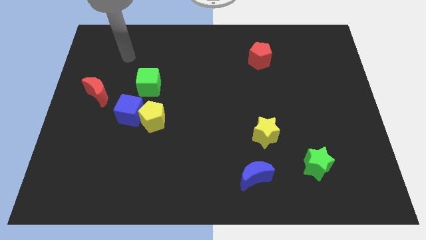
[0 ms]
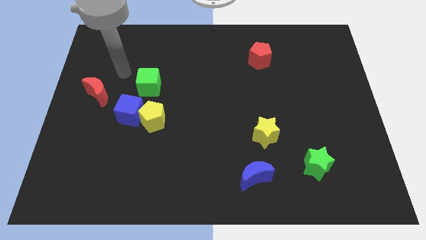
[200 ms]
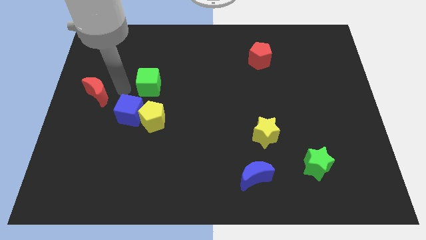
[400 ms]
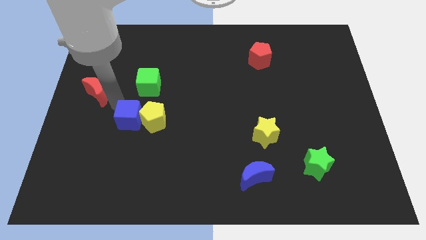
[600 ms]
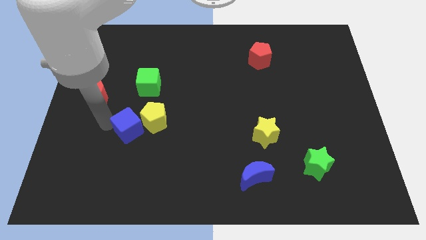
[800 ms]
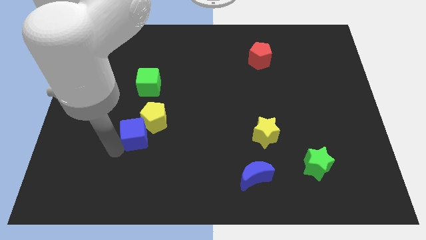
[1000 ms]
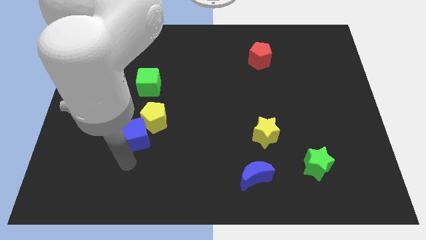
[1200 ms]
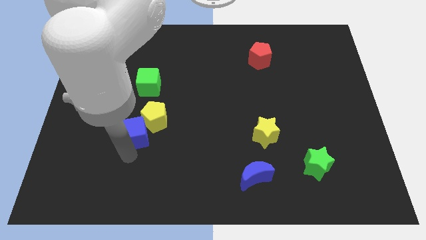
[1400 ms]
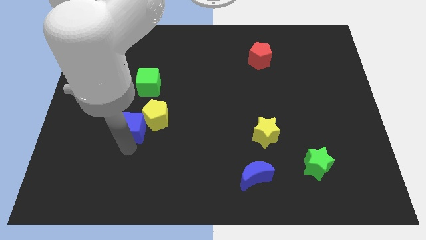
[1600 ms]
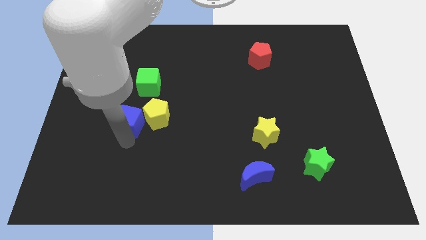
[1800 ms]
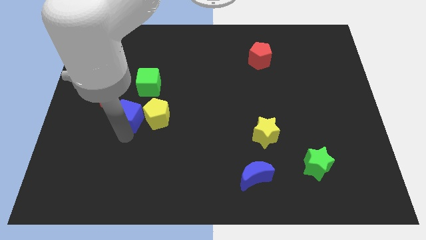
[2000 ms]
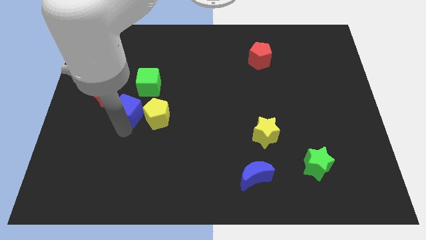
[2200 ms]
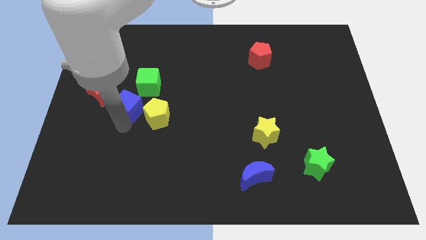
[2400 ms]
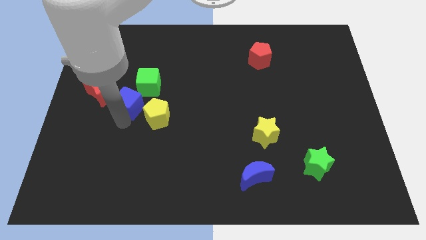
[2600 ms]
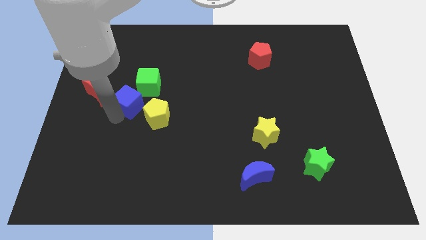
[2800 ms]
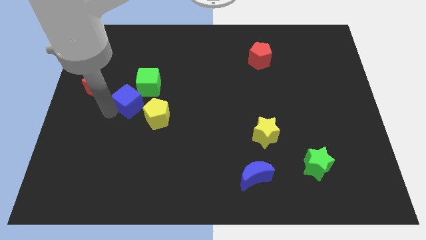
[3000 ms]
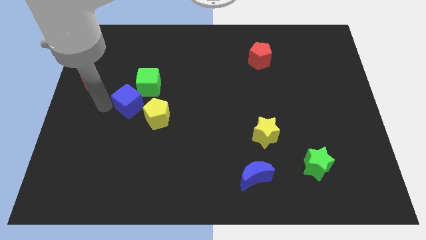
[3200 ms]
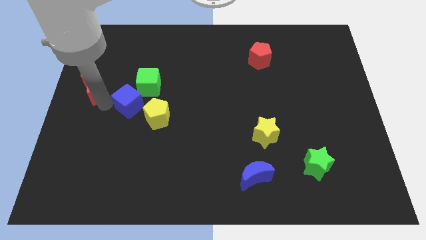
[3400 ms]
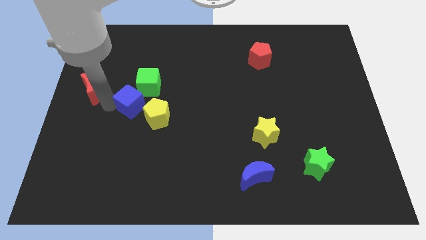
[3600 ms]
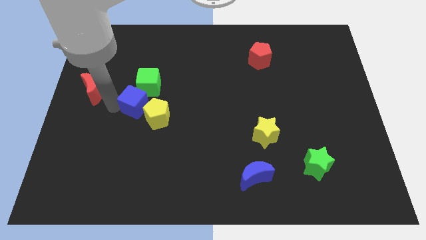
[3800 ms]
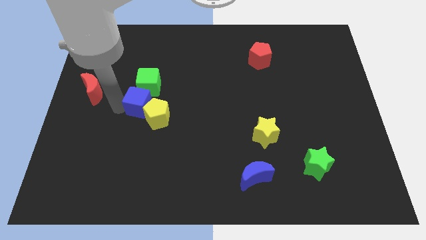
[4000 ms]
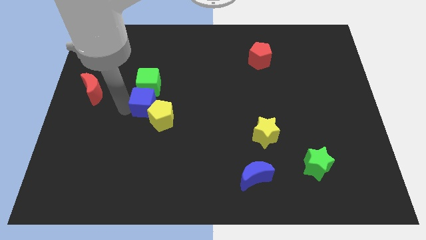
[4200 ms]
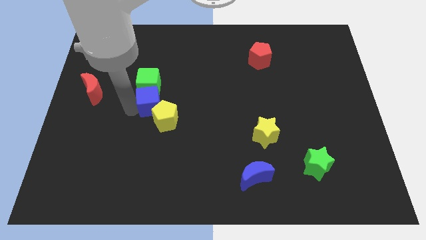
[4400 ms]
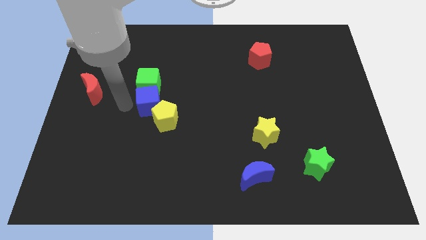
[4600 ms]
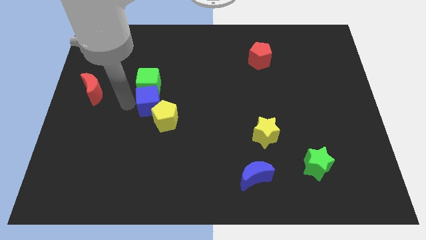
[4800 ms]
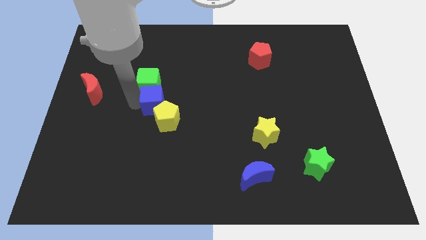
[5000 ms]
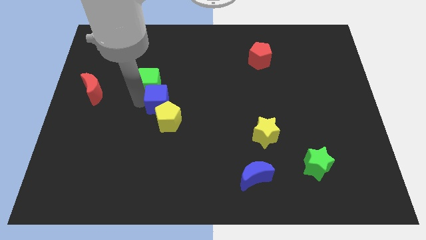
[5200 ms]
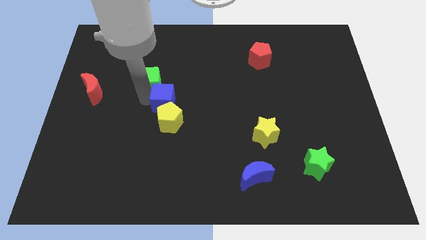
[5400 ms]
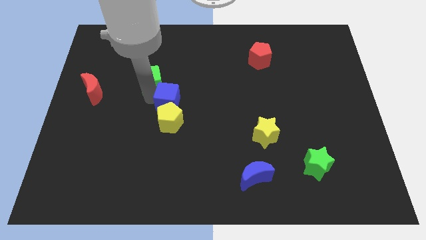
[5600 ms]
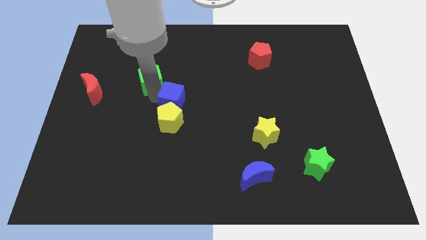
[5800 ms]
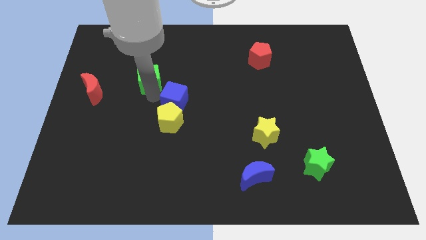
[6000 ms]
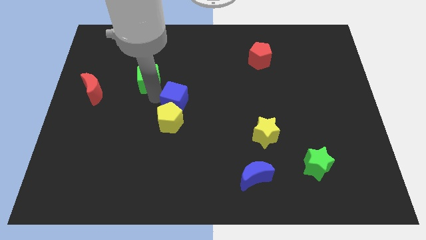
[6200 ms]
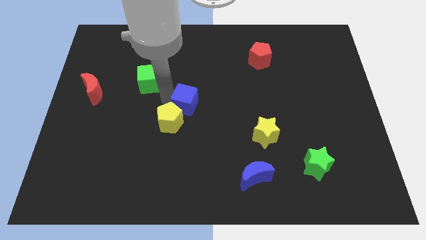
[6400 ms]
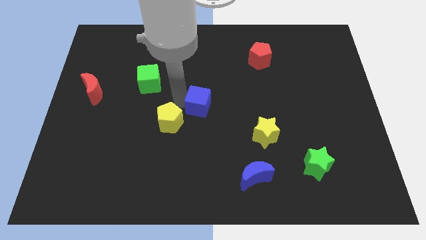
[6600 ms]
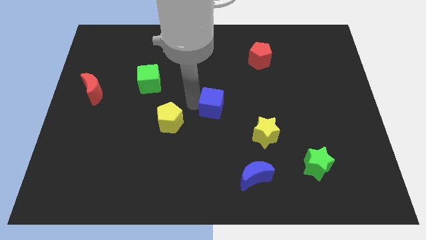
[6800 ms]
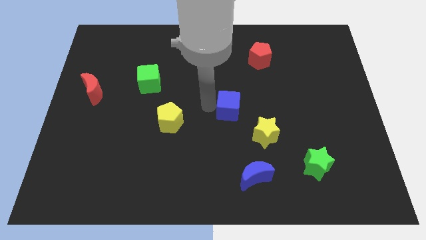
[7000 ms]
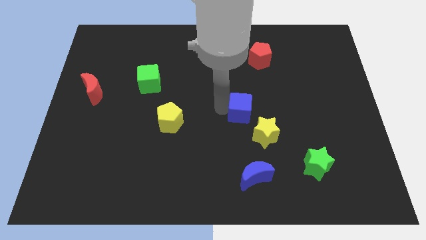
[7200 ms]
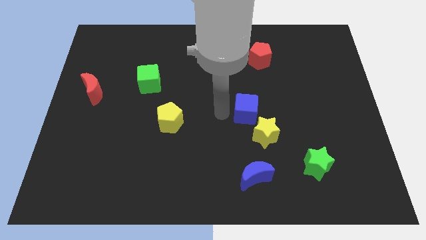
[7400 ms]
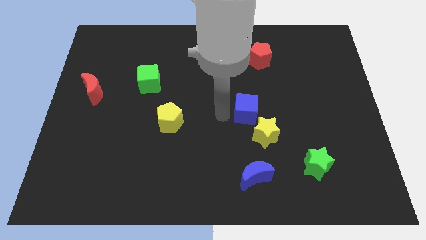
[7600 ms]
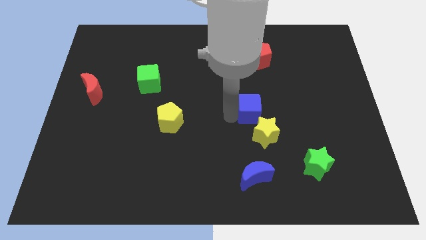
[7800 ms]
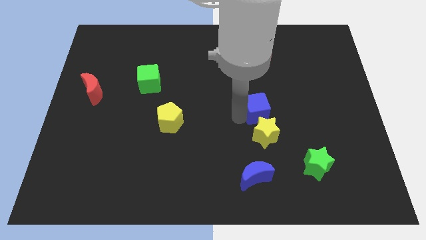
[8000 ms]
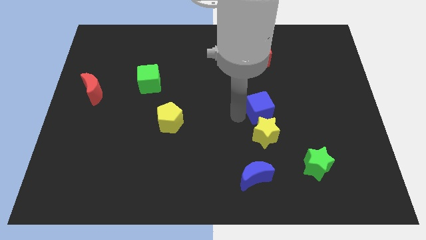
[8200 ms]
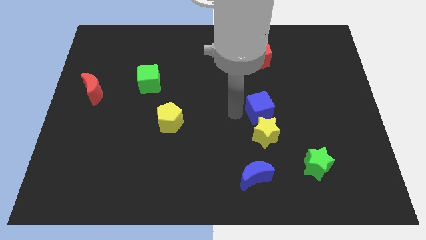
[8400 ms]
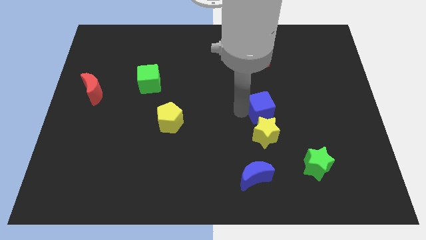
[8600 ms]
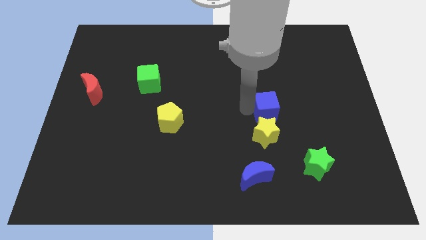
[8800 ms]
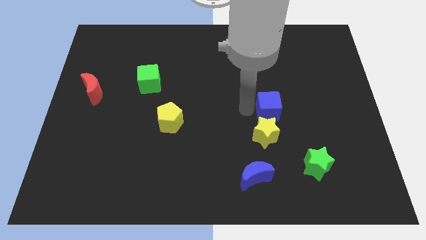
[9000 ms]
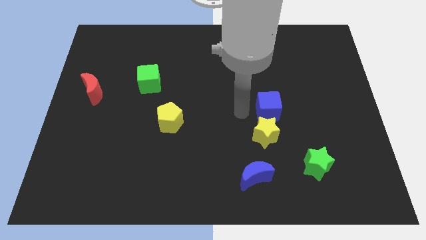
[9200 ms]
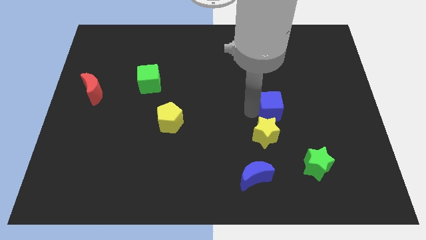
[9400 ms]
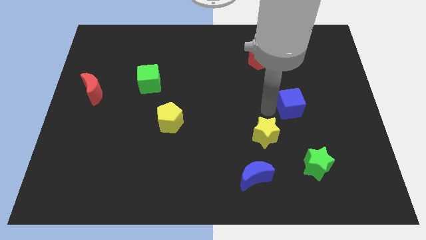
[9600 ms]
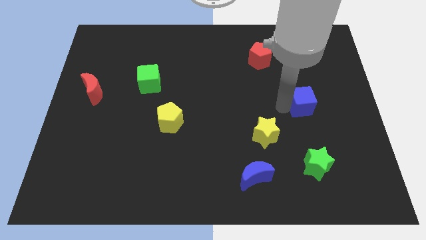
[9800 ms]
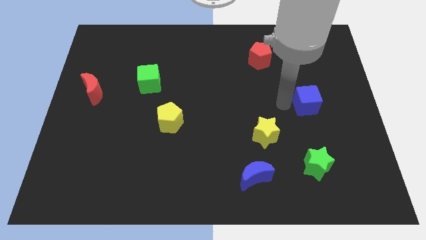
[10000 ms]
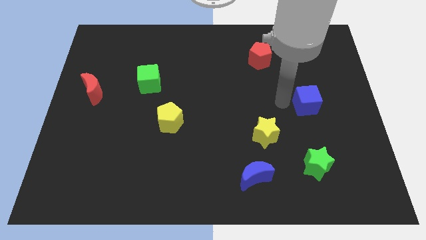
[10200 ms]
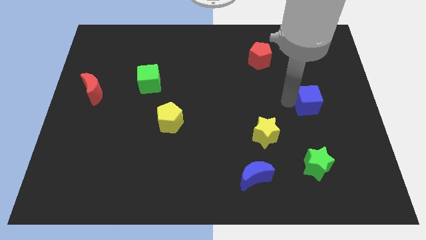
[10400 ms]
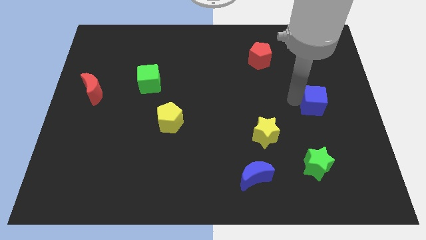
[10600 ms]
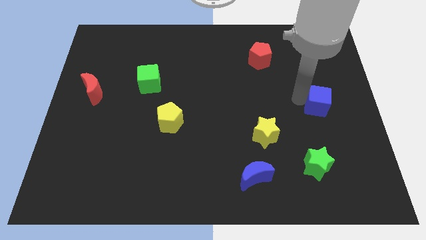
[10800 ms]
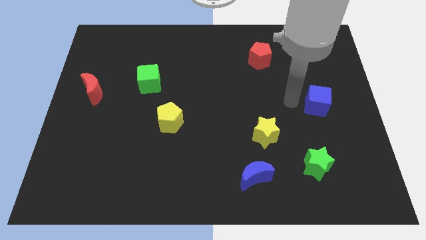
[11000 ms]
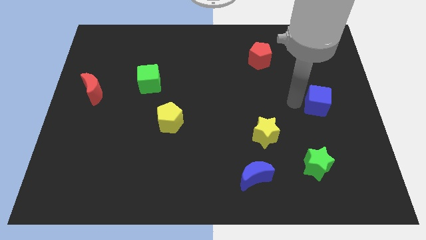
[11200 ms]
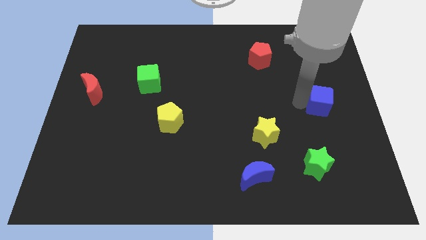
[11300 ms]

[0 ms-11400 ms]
put the blue cube to the center right

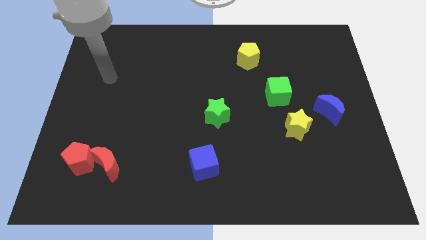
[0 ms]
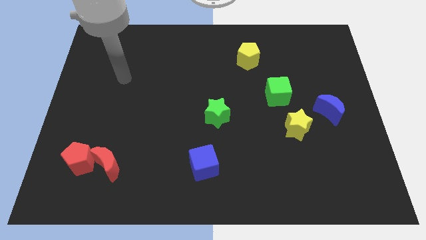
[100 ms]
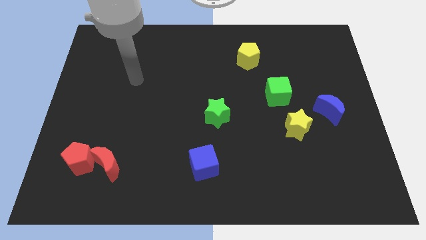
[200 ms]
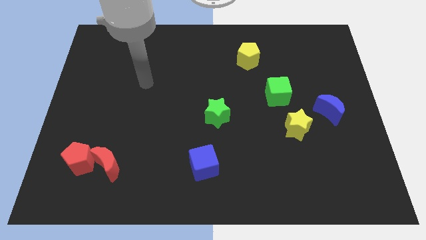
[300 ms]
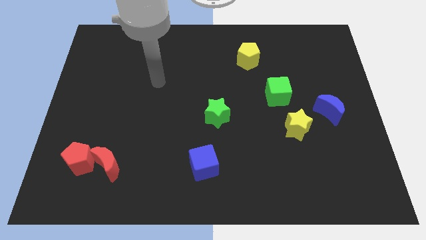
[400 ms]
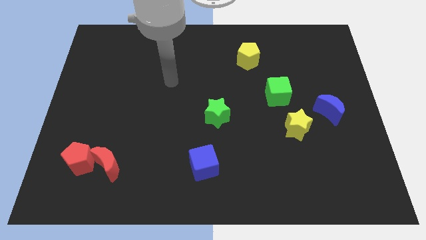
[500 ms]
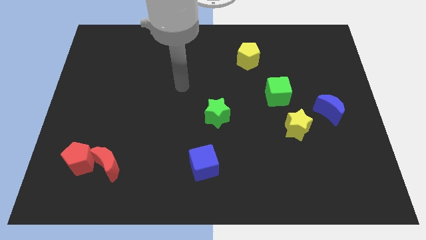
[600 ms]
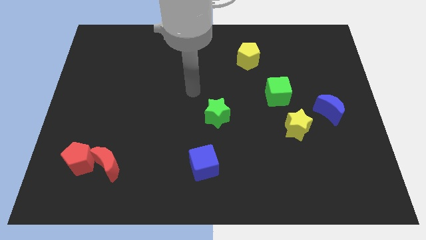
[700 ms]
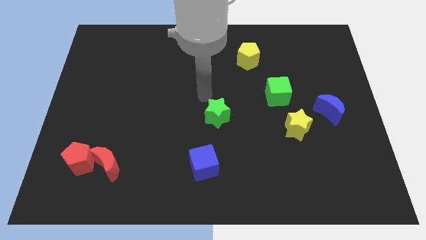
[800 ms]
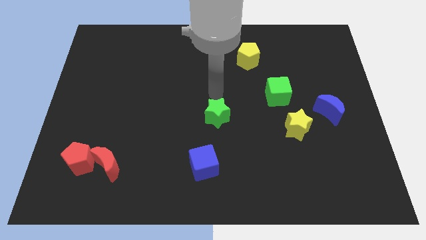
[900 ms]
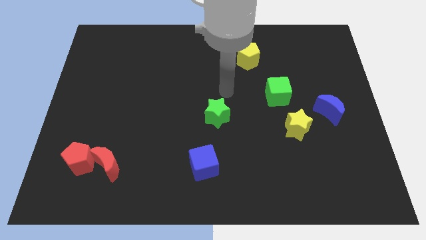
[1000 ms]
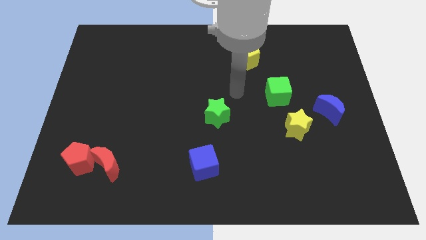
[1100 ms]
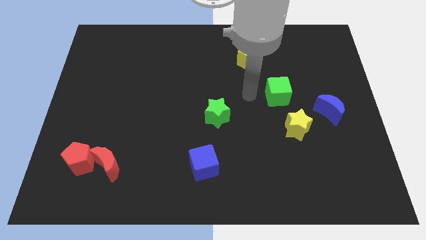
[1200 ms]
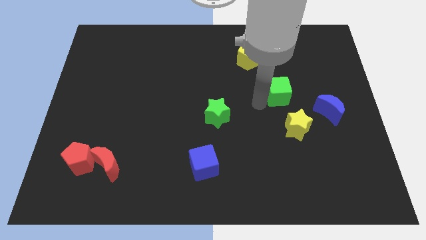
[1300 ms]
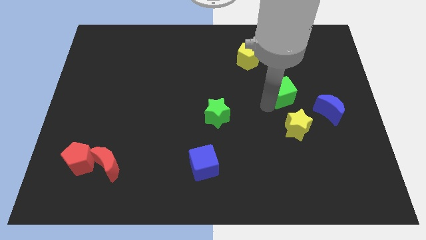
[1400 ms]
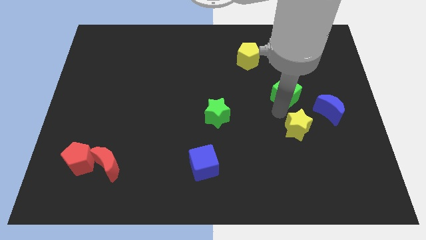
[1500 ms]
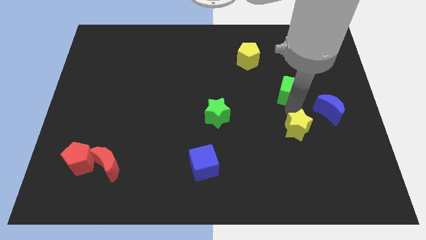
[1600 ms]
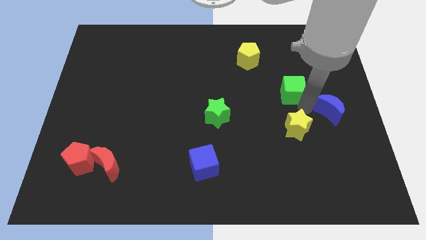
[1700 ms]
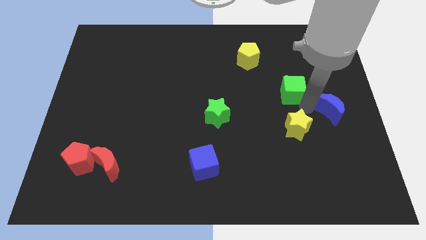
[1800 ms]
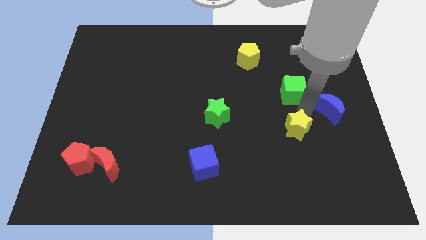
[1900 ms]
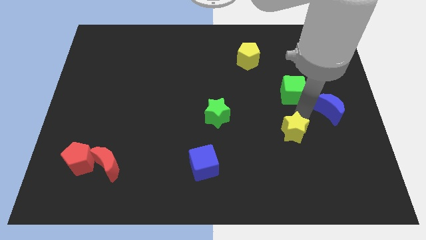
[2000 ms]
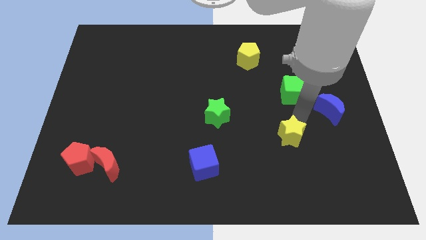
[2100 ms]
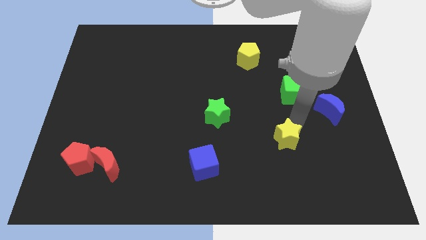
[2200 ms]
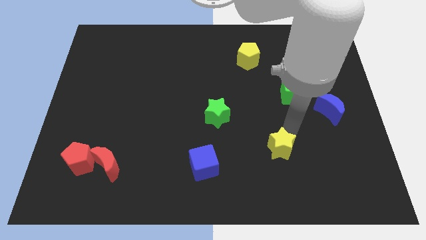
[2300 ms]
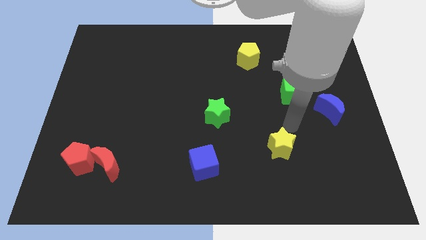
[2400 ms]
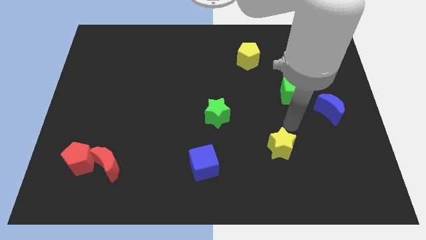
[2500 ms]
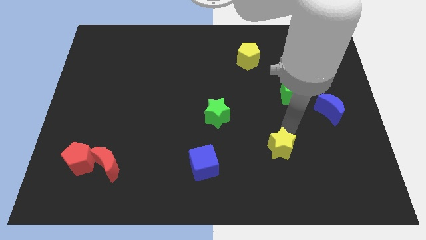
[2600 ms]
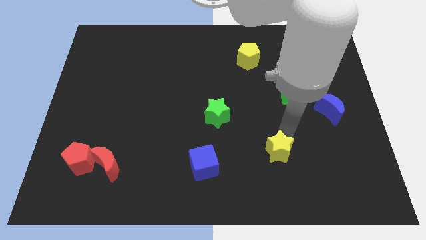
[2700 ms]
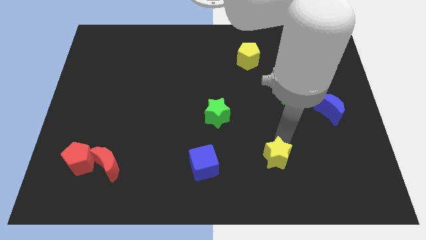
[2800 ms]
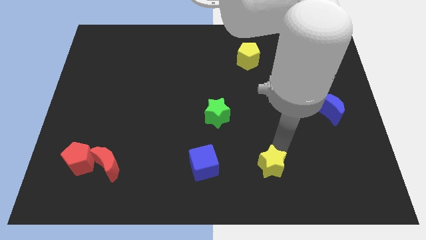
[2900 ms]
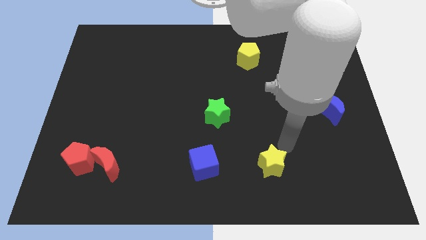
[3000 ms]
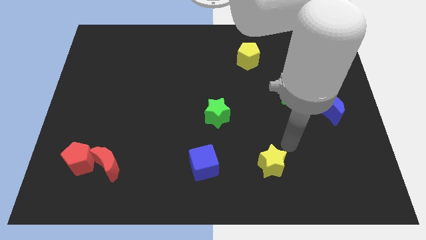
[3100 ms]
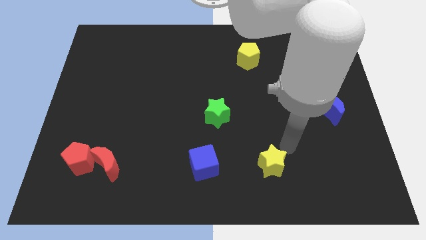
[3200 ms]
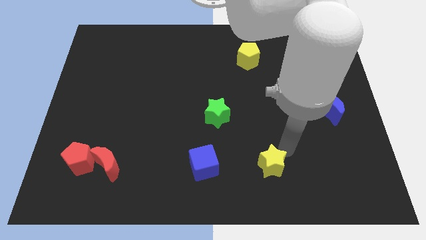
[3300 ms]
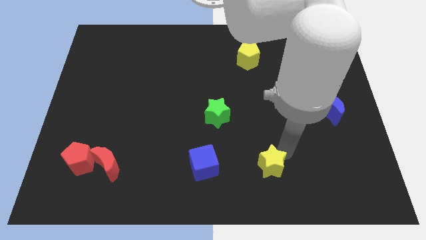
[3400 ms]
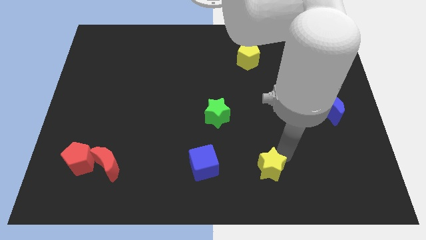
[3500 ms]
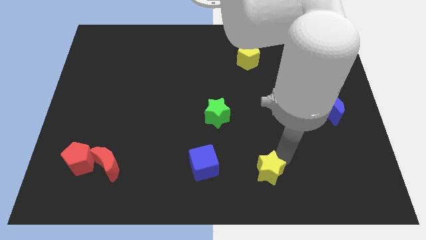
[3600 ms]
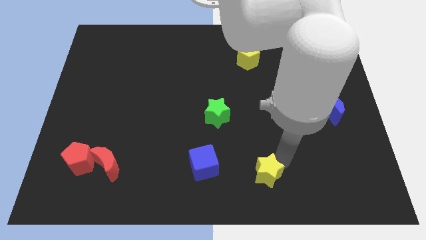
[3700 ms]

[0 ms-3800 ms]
put the yellow star to the bottom
